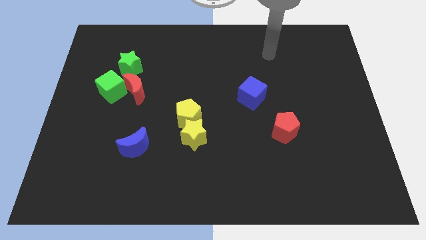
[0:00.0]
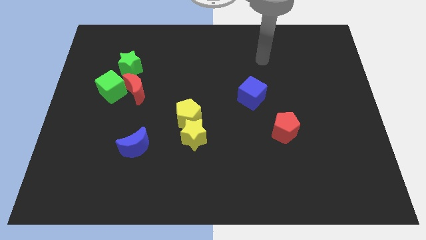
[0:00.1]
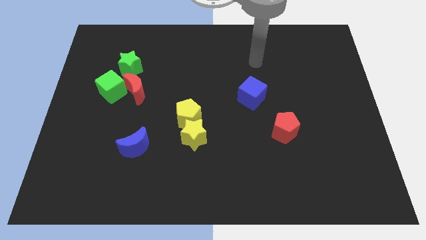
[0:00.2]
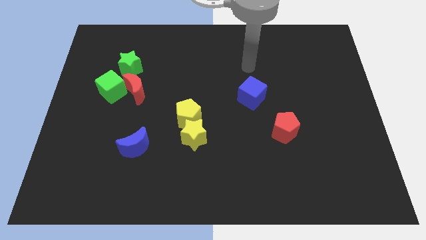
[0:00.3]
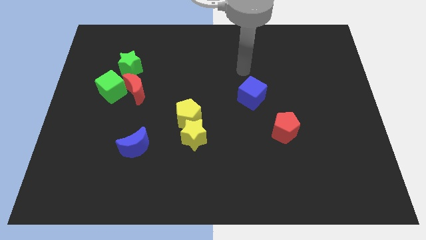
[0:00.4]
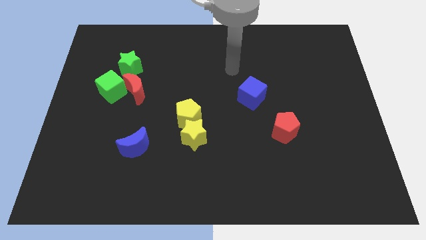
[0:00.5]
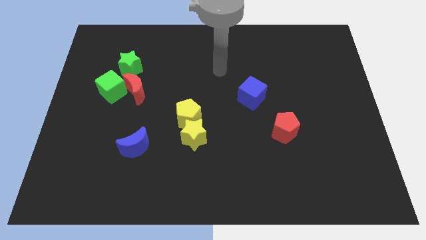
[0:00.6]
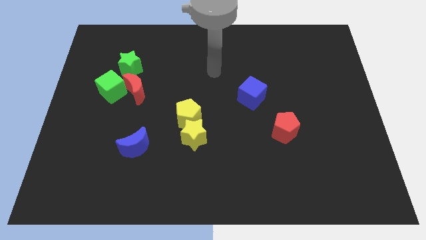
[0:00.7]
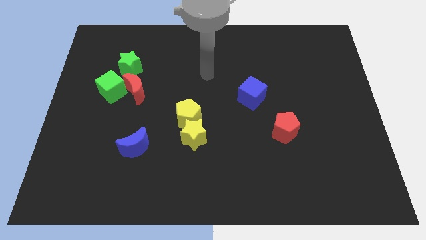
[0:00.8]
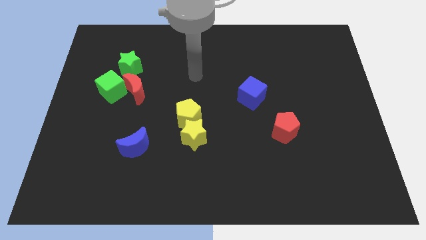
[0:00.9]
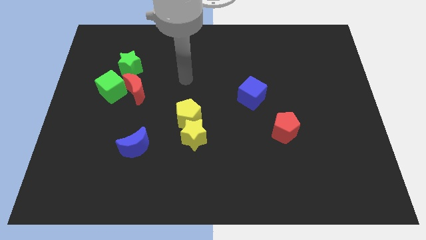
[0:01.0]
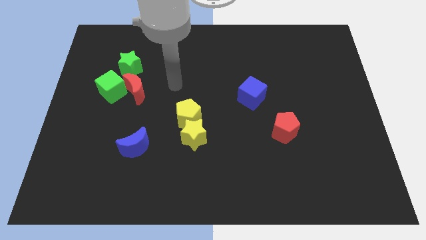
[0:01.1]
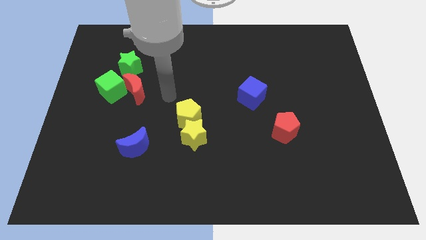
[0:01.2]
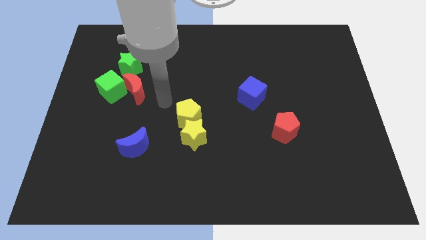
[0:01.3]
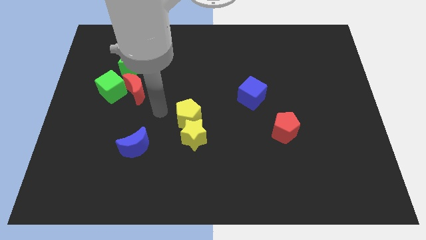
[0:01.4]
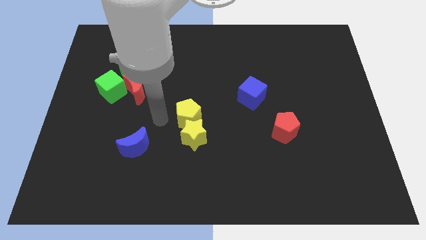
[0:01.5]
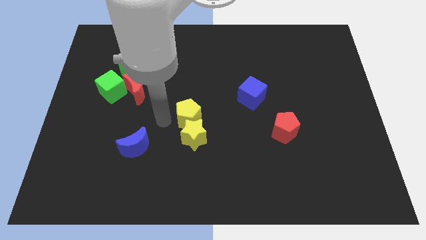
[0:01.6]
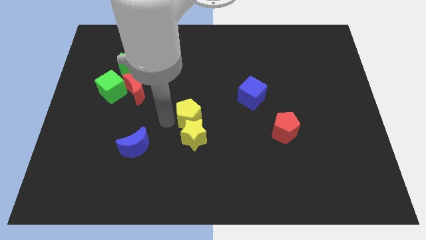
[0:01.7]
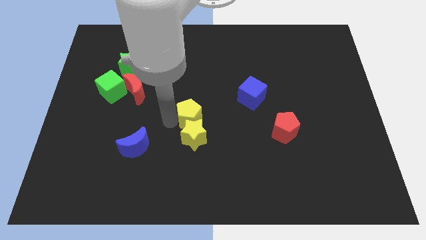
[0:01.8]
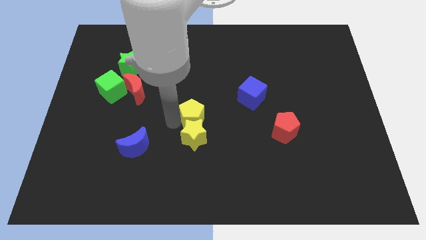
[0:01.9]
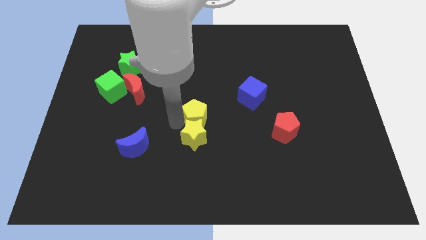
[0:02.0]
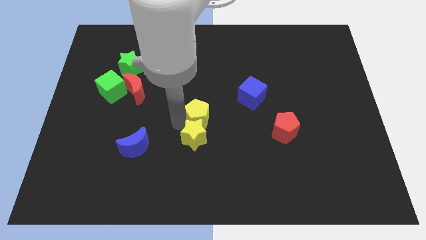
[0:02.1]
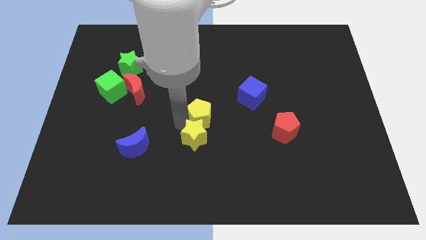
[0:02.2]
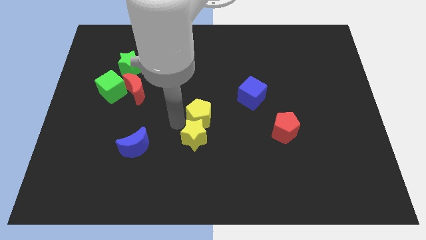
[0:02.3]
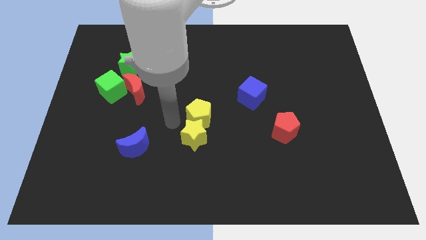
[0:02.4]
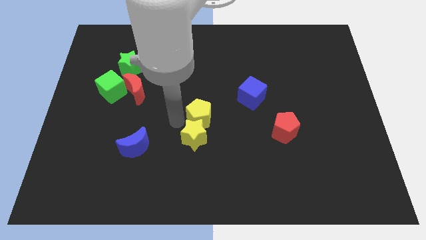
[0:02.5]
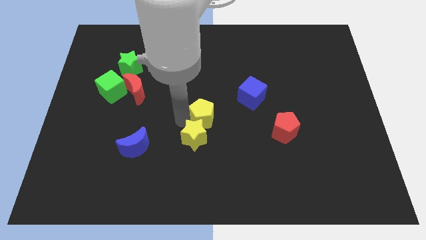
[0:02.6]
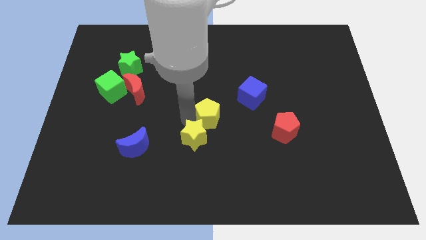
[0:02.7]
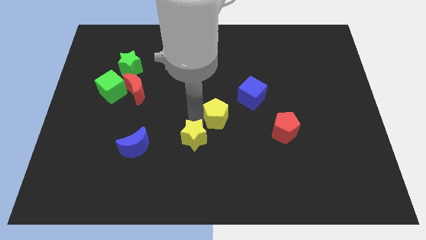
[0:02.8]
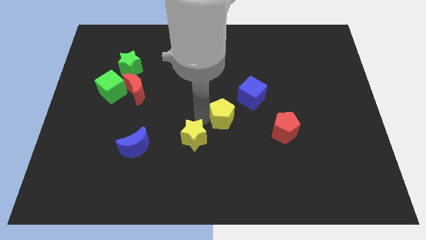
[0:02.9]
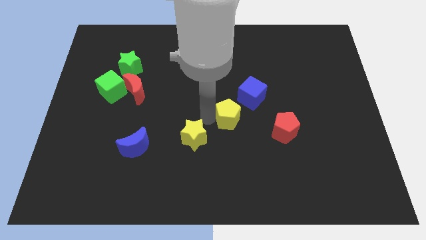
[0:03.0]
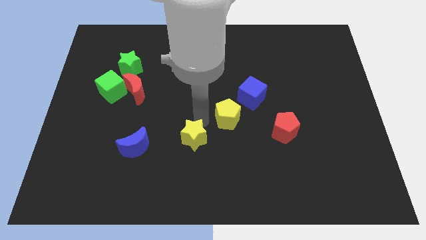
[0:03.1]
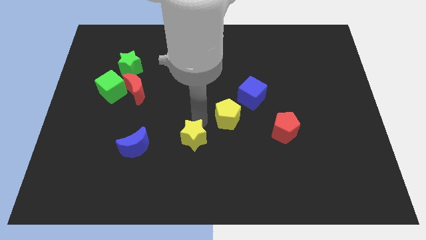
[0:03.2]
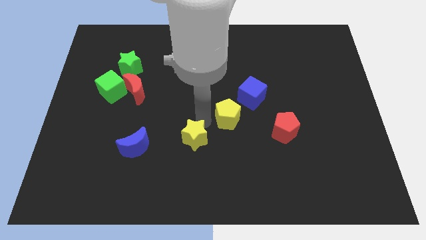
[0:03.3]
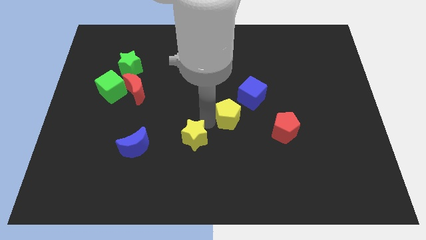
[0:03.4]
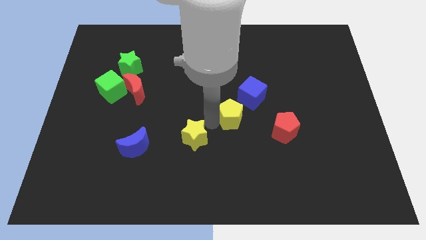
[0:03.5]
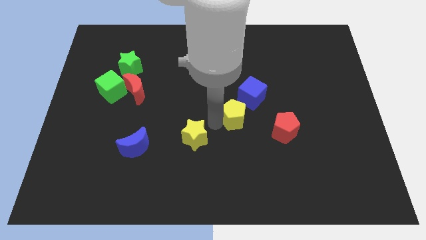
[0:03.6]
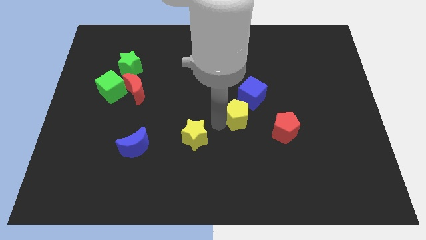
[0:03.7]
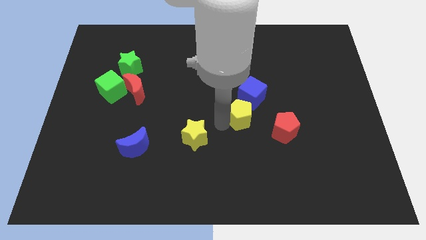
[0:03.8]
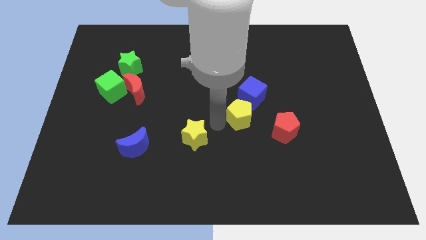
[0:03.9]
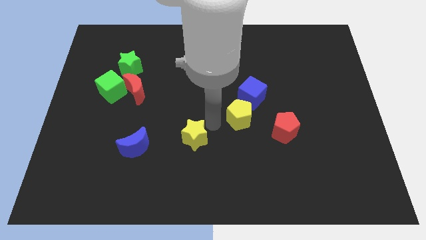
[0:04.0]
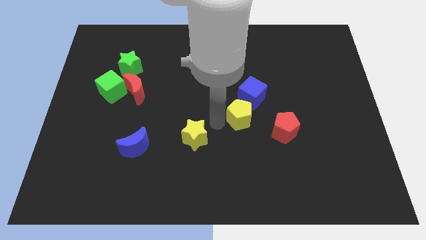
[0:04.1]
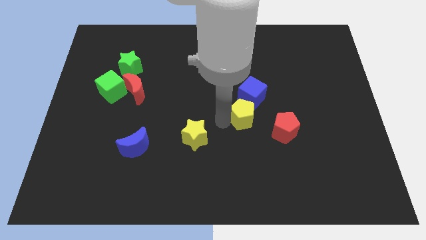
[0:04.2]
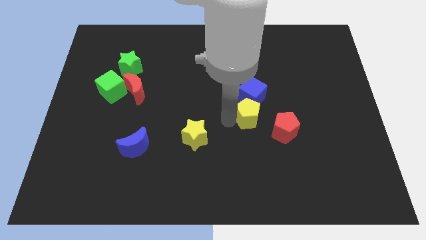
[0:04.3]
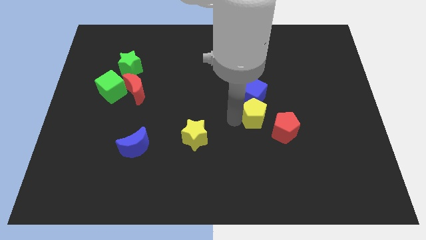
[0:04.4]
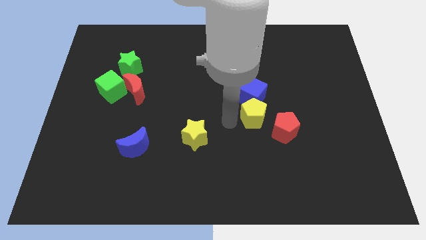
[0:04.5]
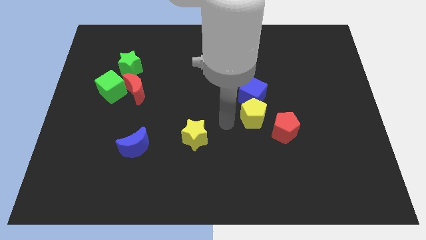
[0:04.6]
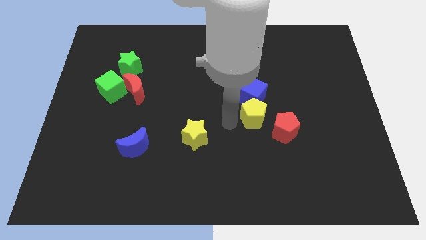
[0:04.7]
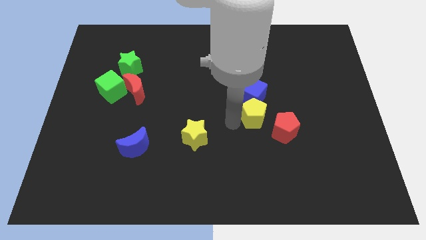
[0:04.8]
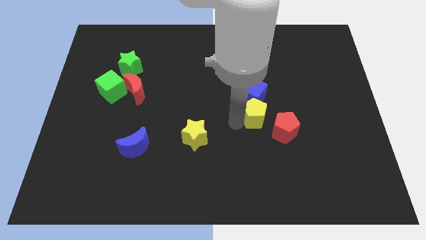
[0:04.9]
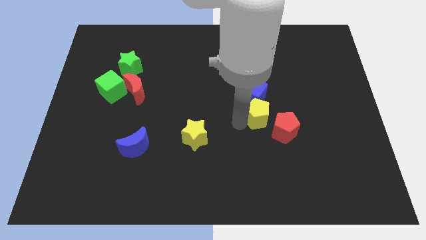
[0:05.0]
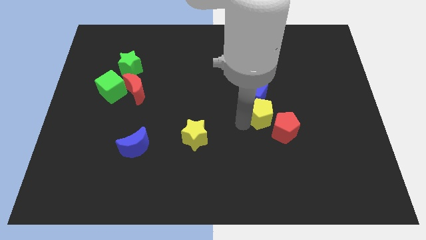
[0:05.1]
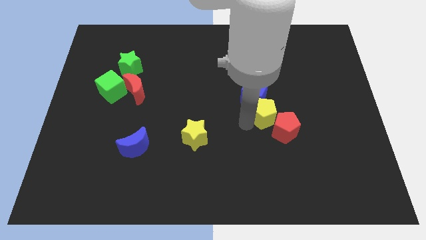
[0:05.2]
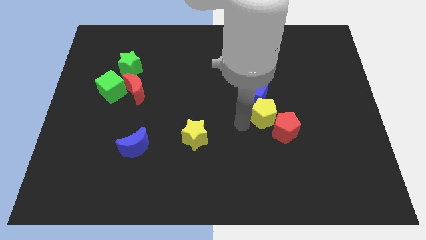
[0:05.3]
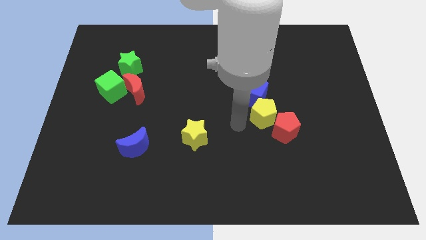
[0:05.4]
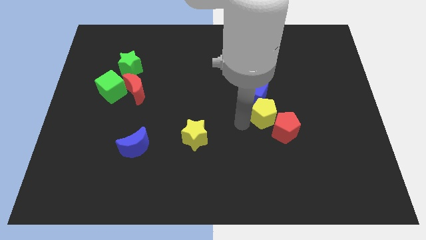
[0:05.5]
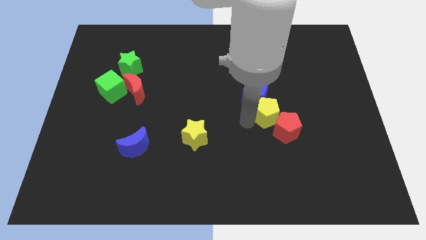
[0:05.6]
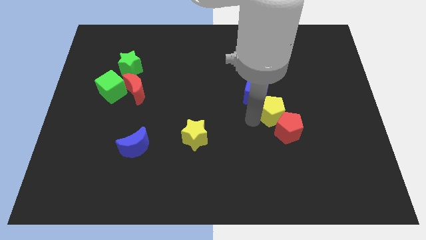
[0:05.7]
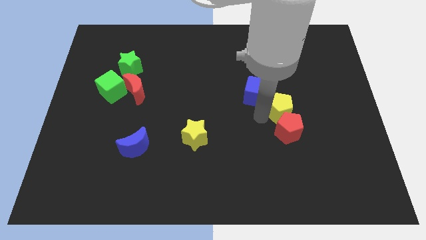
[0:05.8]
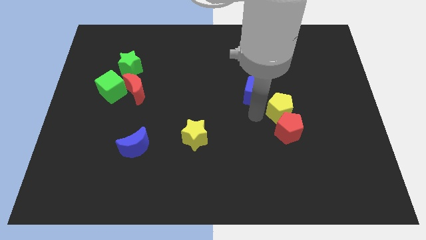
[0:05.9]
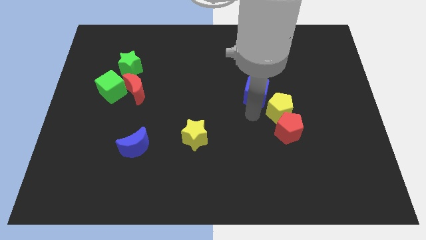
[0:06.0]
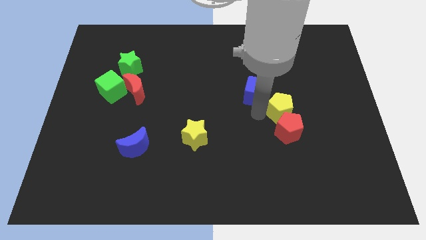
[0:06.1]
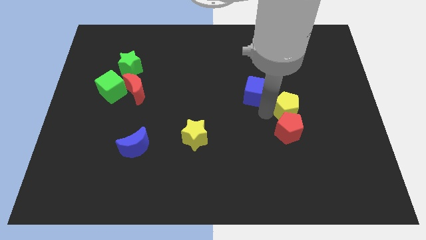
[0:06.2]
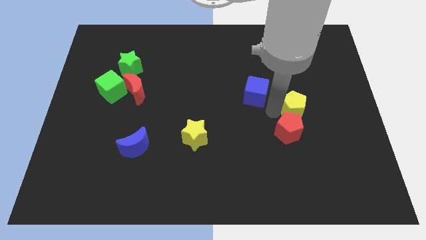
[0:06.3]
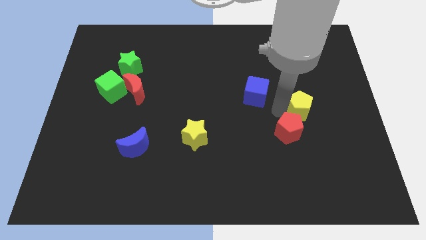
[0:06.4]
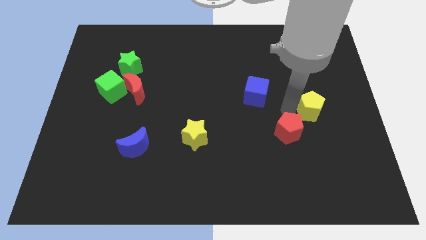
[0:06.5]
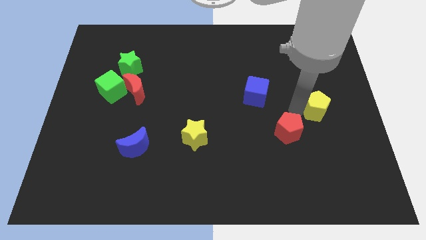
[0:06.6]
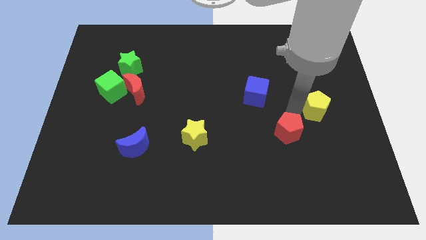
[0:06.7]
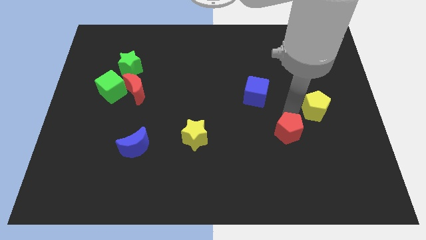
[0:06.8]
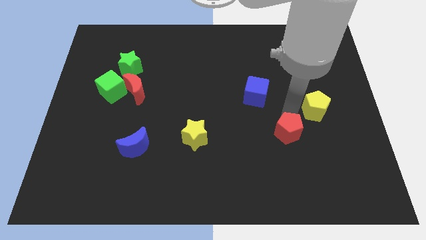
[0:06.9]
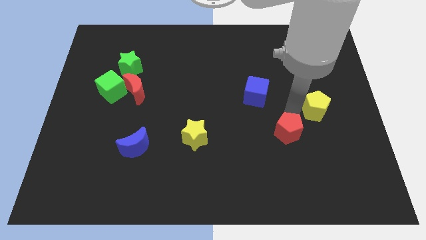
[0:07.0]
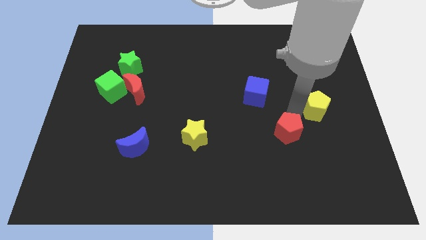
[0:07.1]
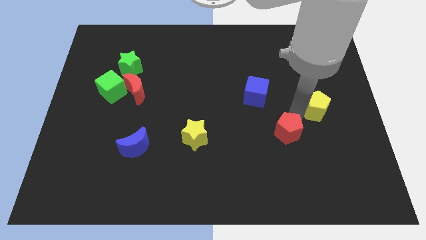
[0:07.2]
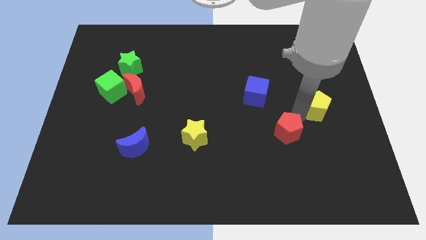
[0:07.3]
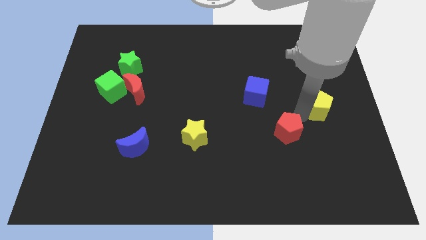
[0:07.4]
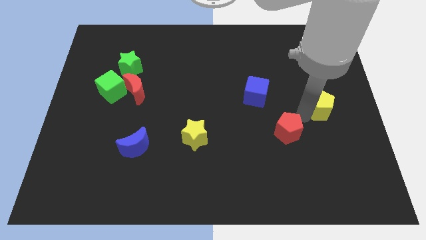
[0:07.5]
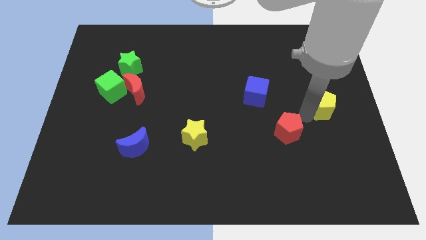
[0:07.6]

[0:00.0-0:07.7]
slide the yellow pentagon to the right side
